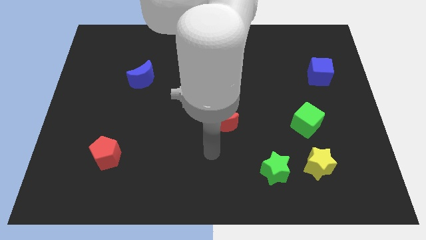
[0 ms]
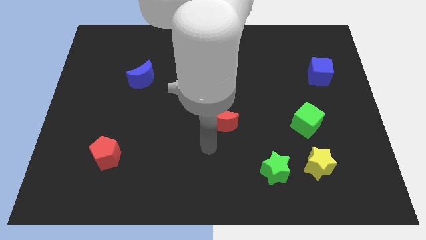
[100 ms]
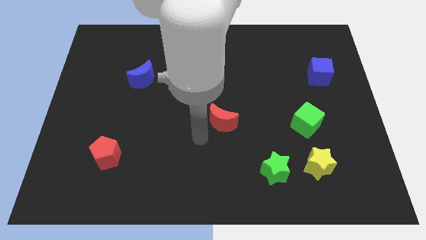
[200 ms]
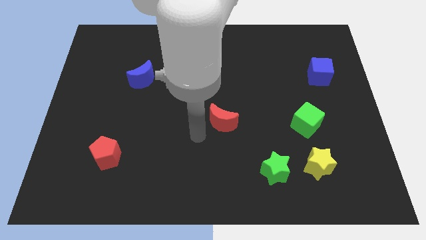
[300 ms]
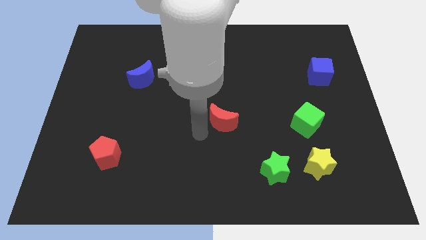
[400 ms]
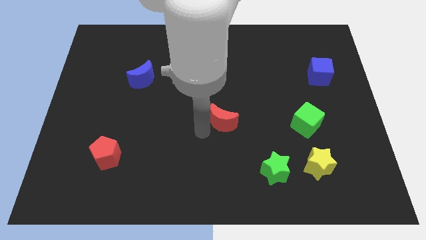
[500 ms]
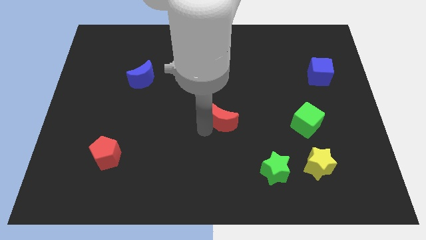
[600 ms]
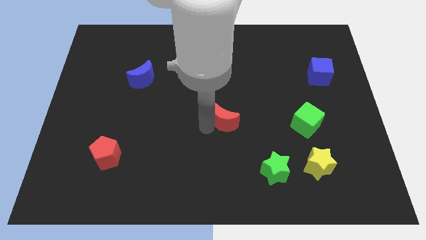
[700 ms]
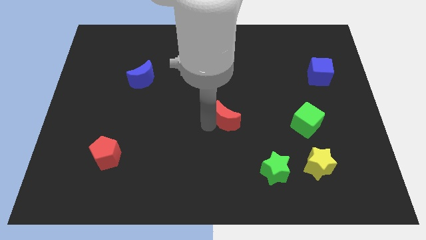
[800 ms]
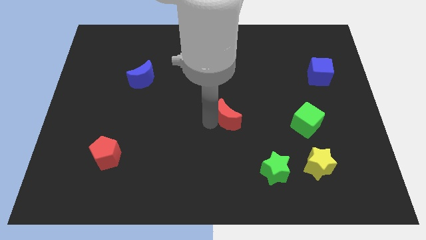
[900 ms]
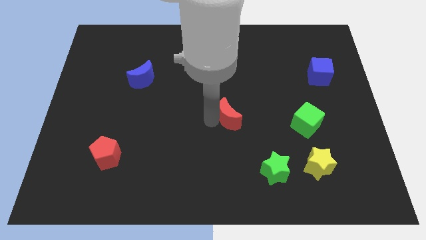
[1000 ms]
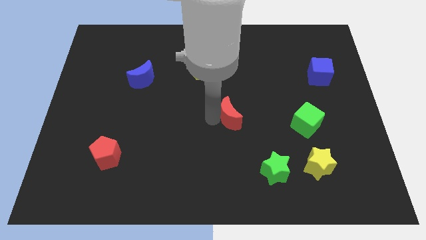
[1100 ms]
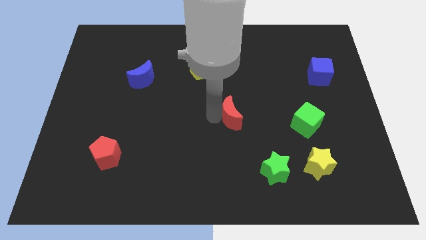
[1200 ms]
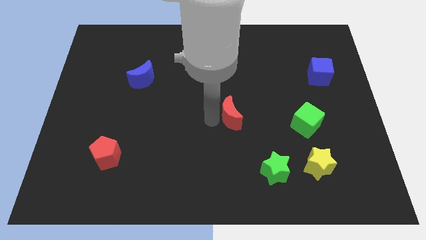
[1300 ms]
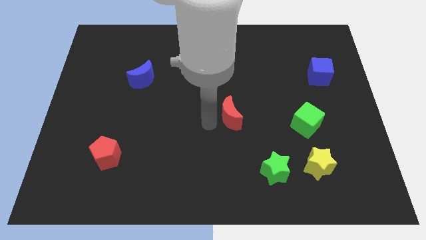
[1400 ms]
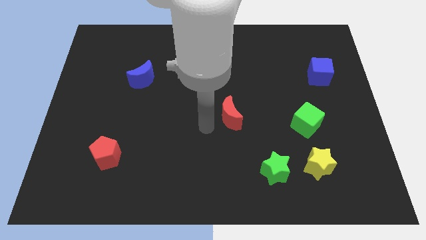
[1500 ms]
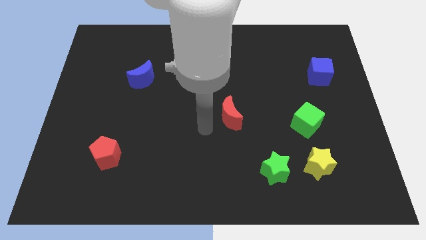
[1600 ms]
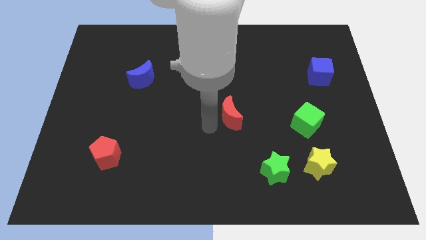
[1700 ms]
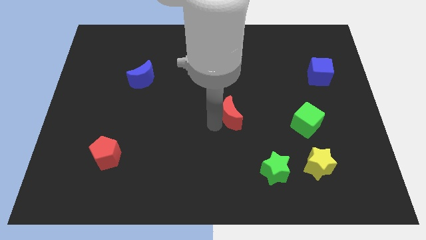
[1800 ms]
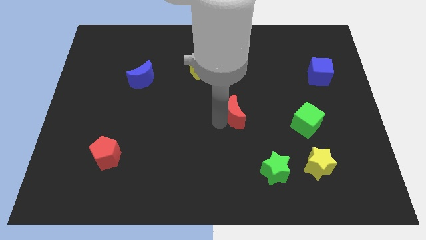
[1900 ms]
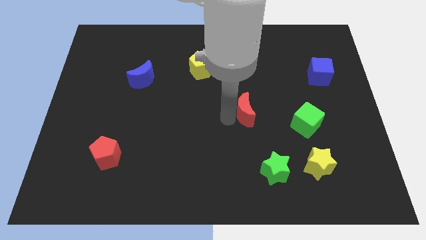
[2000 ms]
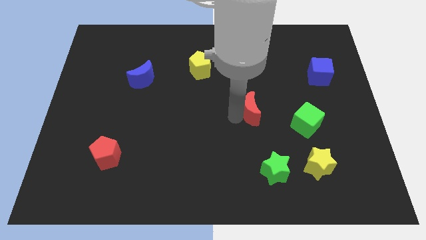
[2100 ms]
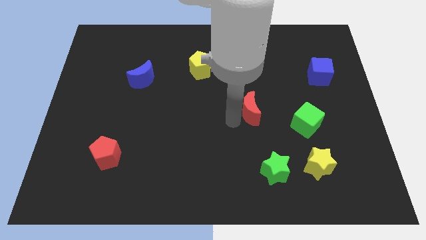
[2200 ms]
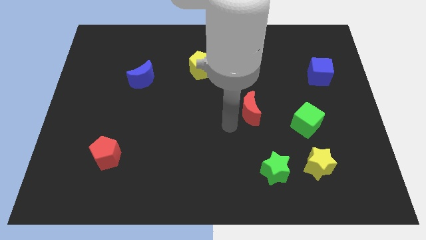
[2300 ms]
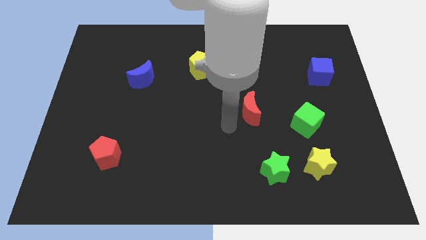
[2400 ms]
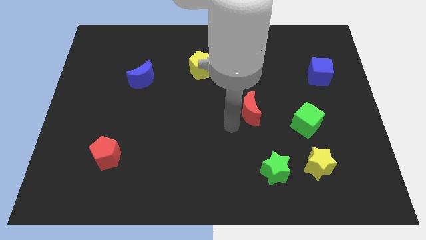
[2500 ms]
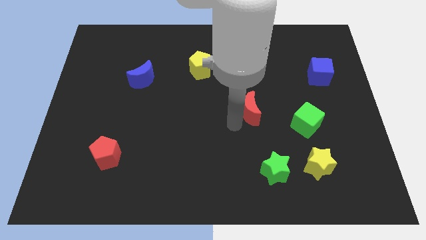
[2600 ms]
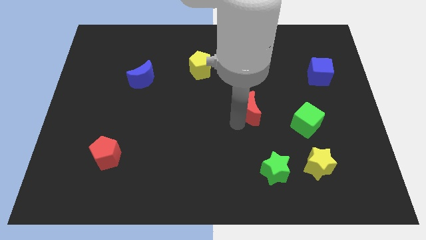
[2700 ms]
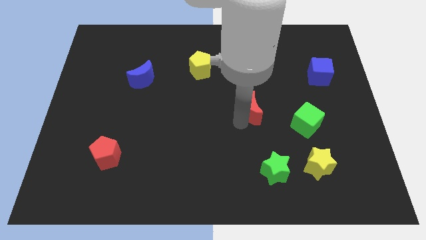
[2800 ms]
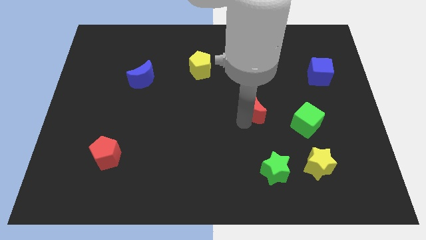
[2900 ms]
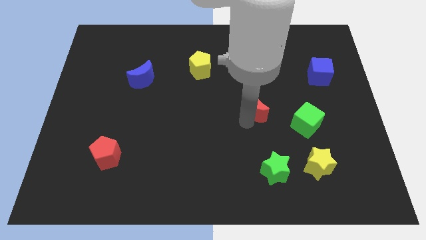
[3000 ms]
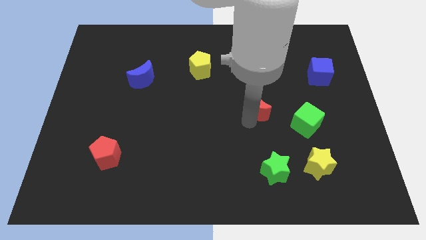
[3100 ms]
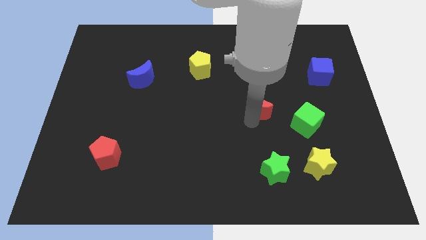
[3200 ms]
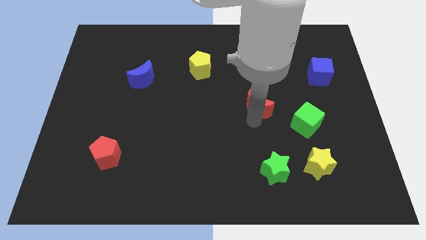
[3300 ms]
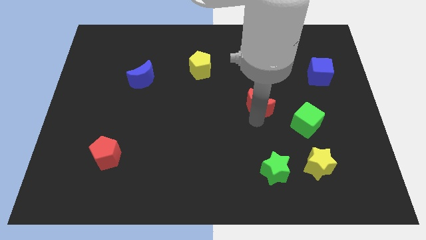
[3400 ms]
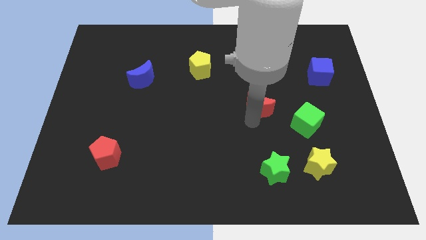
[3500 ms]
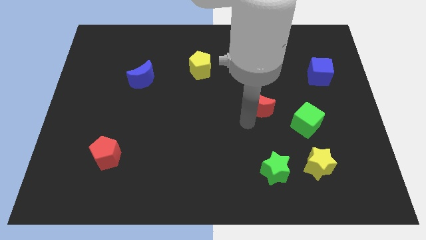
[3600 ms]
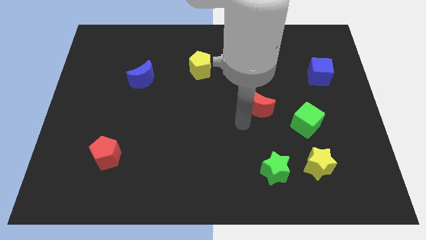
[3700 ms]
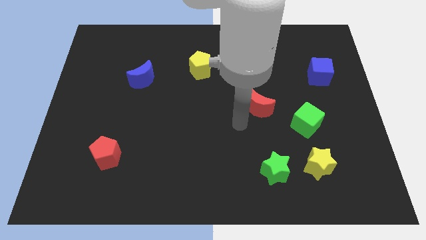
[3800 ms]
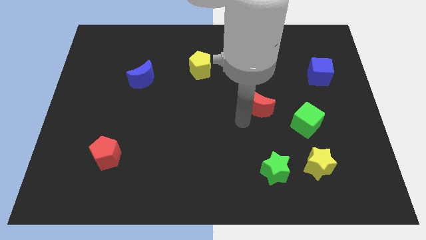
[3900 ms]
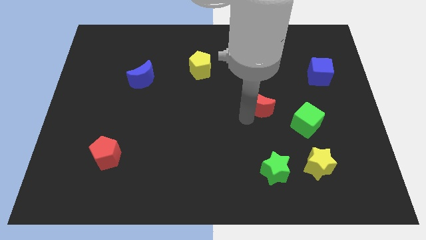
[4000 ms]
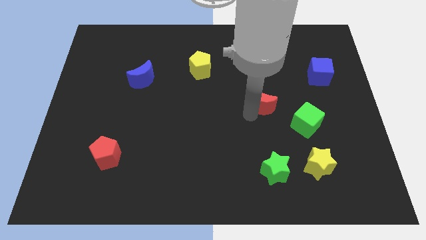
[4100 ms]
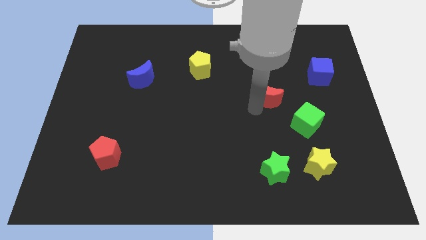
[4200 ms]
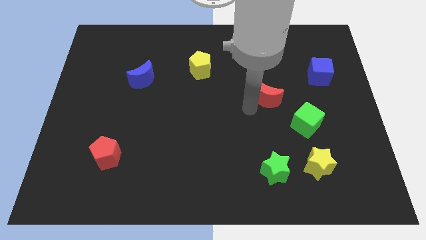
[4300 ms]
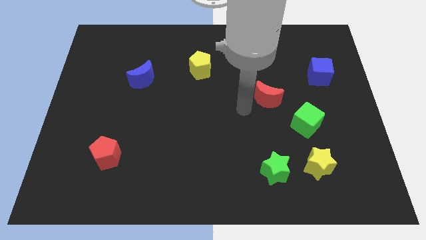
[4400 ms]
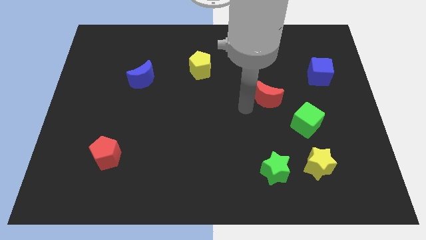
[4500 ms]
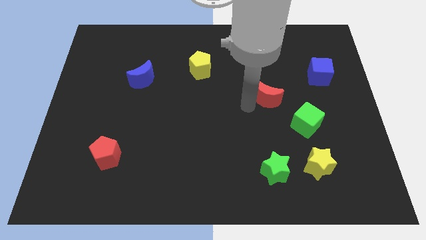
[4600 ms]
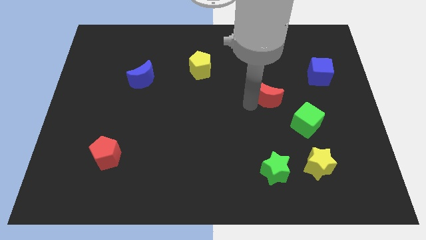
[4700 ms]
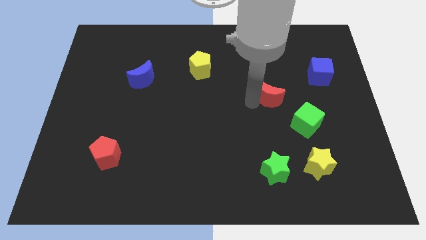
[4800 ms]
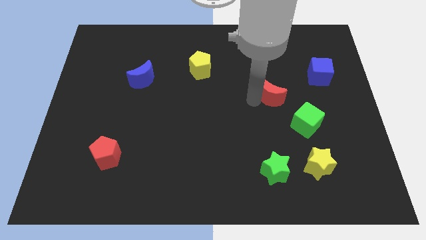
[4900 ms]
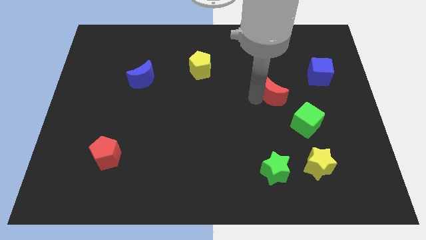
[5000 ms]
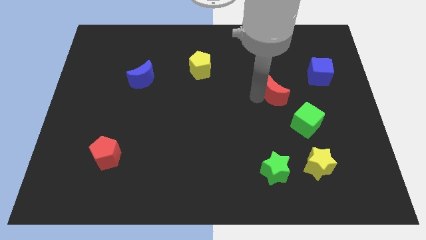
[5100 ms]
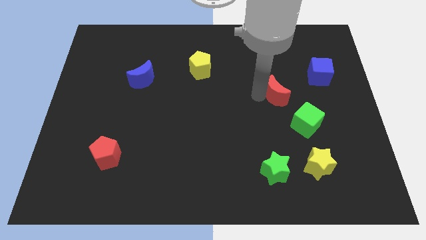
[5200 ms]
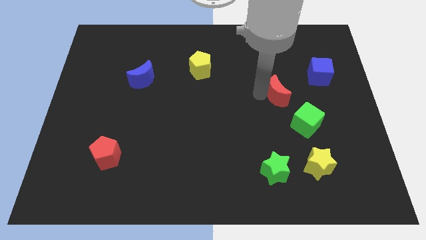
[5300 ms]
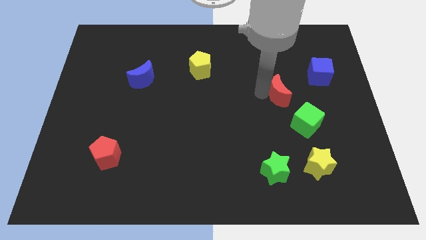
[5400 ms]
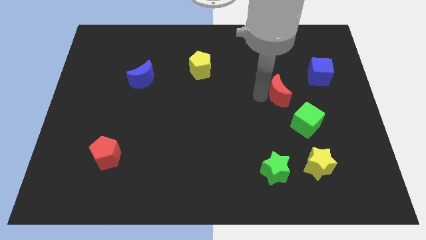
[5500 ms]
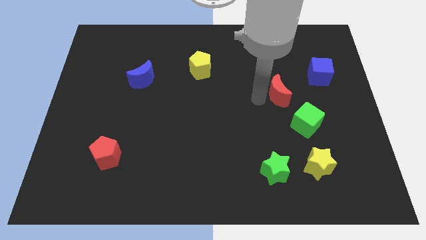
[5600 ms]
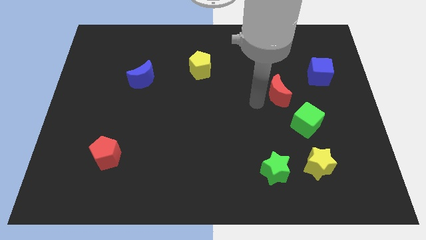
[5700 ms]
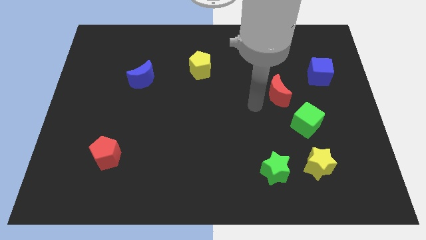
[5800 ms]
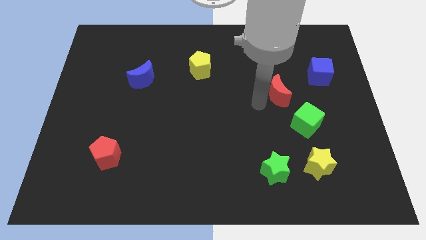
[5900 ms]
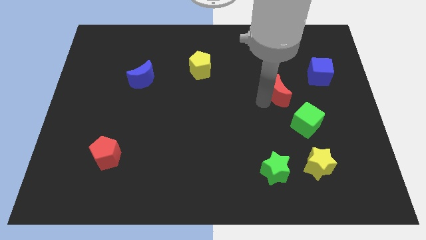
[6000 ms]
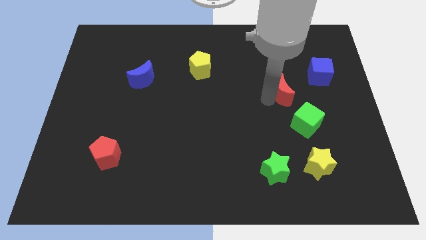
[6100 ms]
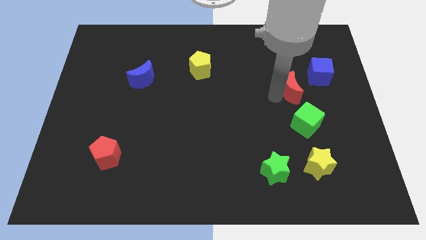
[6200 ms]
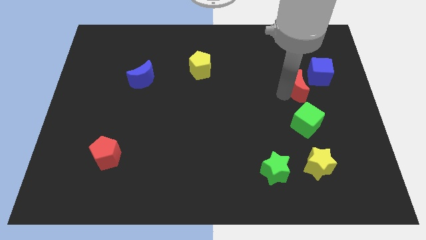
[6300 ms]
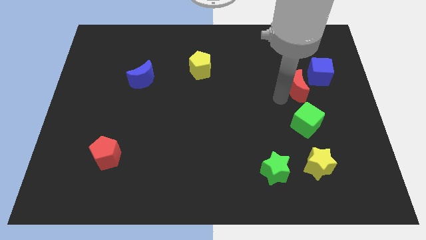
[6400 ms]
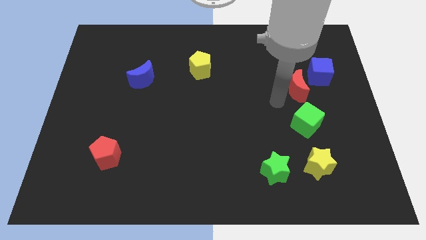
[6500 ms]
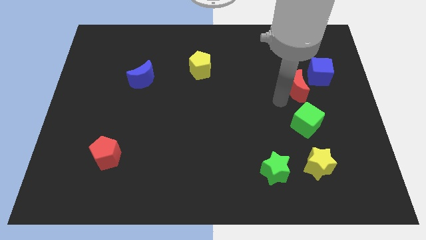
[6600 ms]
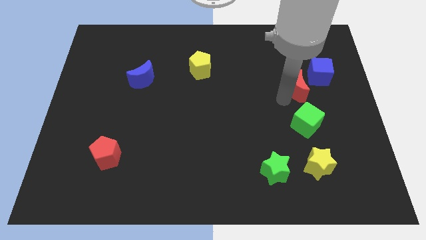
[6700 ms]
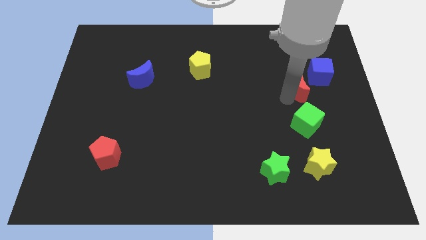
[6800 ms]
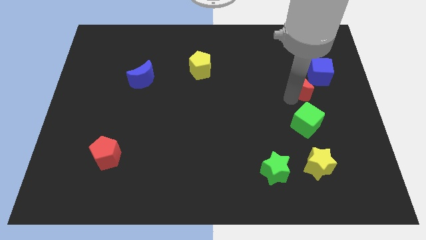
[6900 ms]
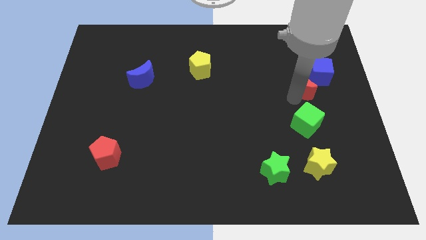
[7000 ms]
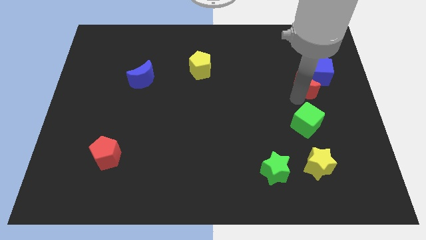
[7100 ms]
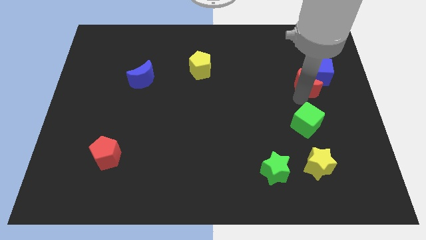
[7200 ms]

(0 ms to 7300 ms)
push the red moon towards the blue cube

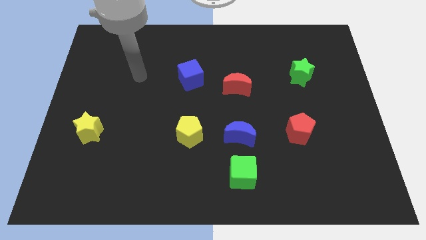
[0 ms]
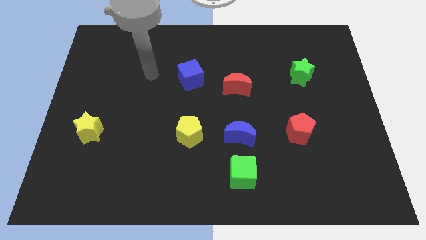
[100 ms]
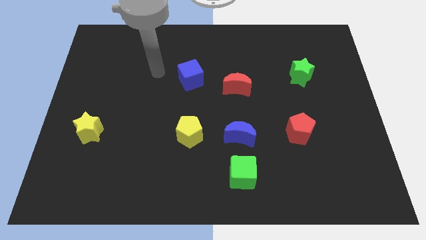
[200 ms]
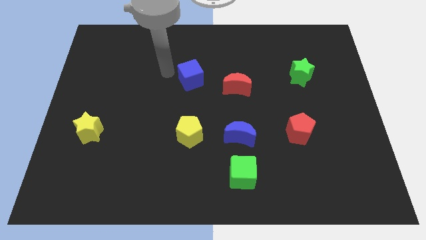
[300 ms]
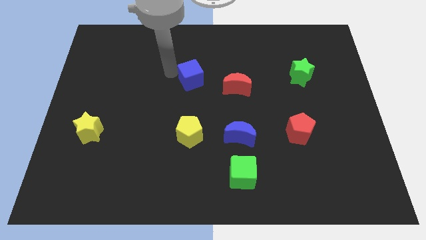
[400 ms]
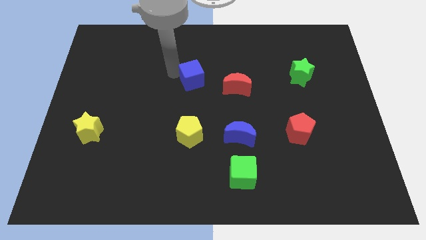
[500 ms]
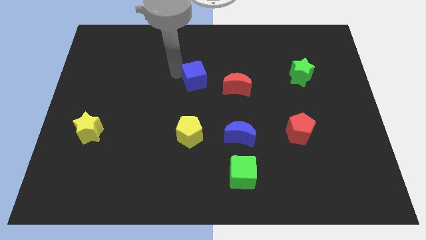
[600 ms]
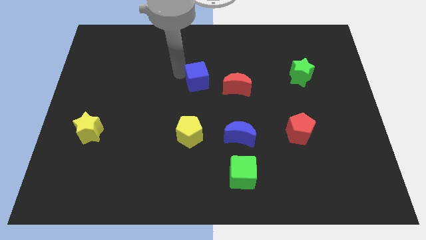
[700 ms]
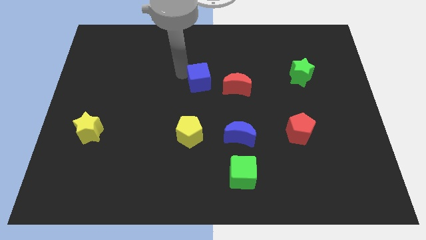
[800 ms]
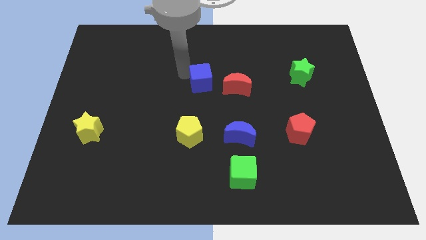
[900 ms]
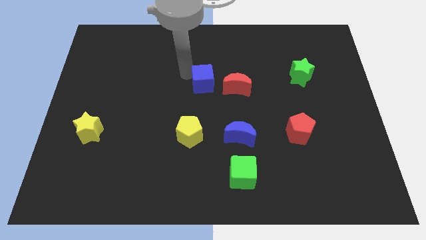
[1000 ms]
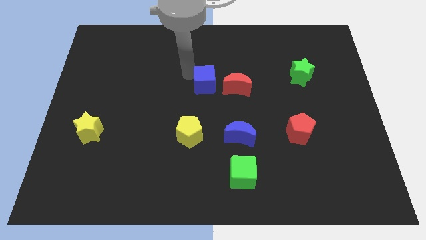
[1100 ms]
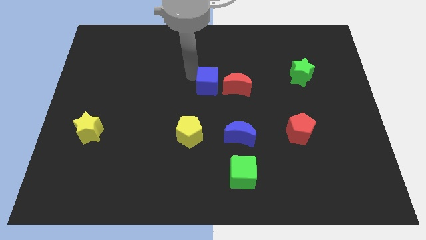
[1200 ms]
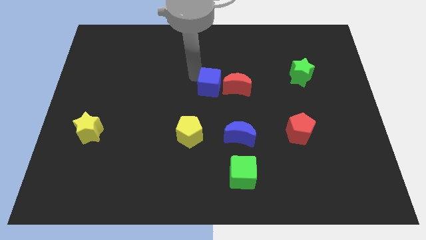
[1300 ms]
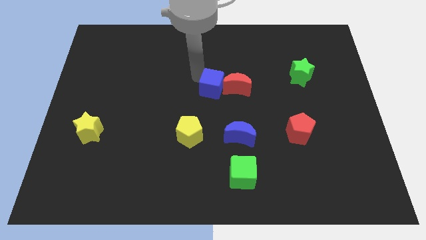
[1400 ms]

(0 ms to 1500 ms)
move the blue cube towards the red moon
